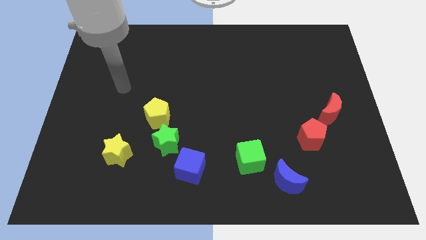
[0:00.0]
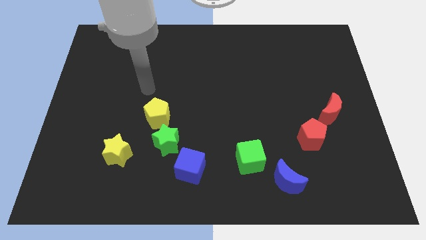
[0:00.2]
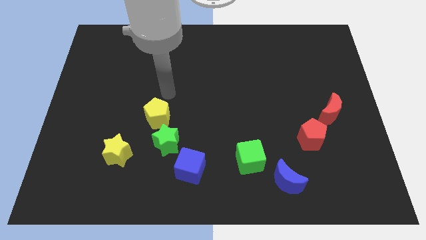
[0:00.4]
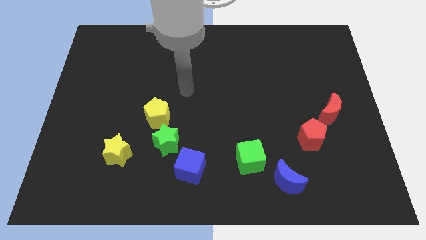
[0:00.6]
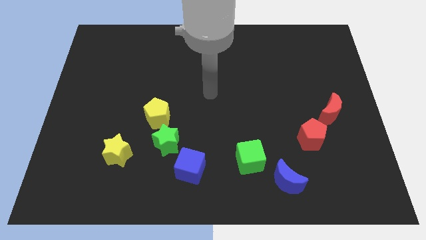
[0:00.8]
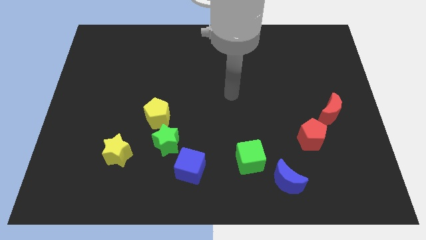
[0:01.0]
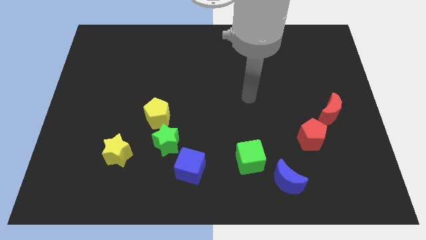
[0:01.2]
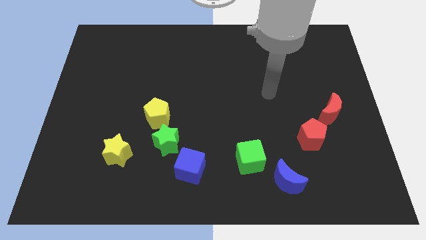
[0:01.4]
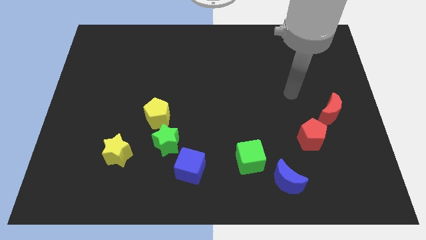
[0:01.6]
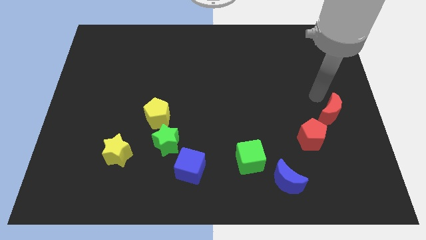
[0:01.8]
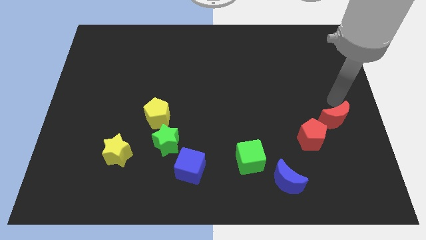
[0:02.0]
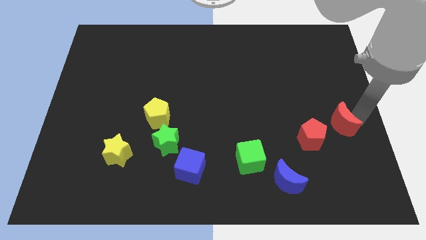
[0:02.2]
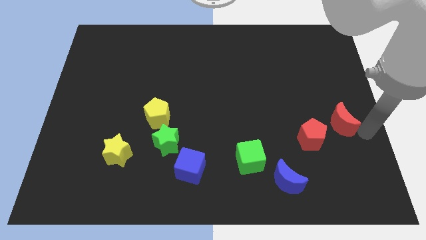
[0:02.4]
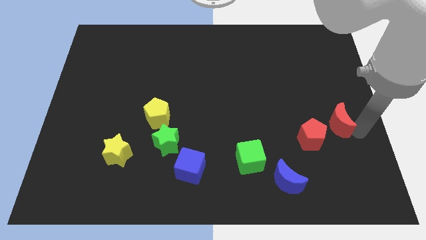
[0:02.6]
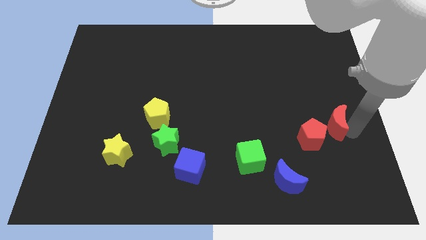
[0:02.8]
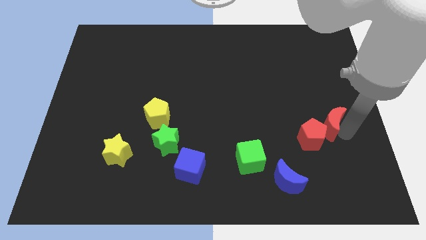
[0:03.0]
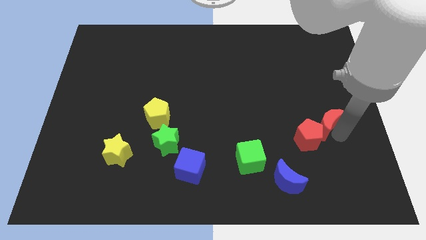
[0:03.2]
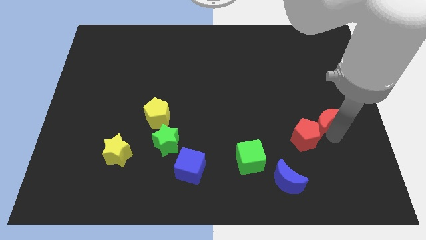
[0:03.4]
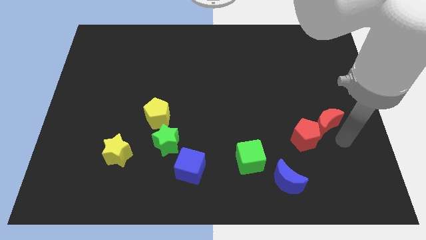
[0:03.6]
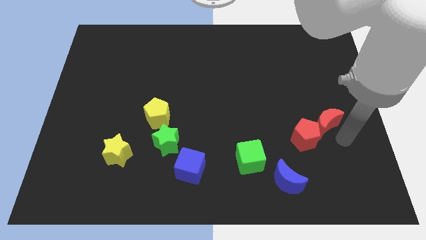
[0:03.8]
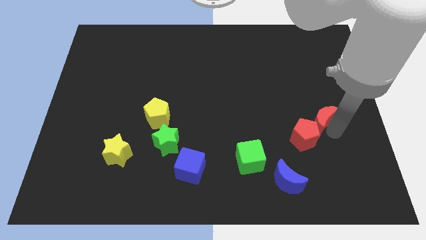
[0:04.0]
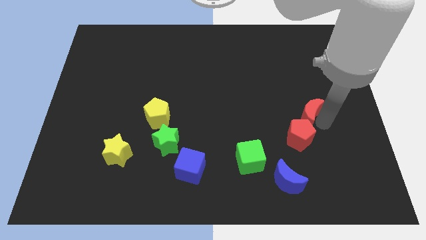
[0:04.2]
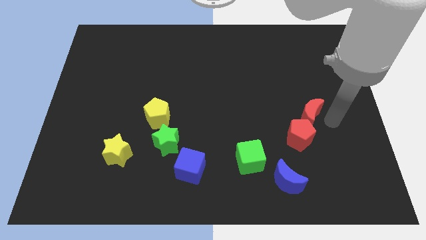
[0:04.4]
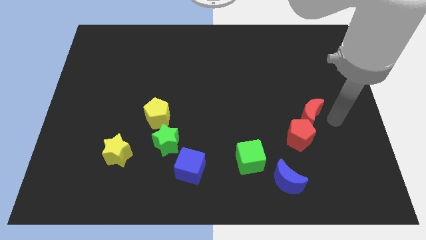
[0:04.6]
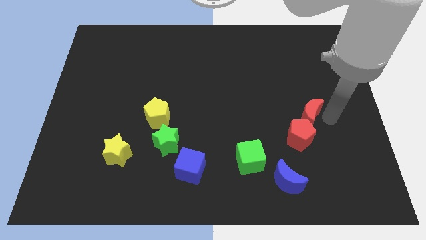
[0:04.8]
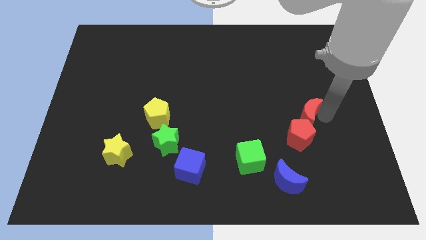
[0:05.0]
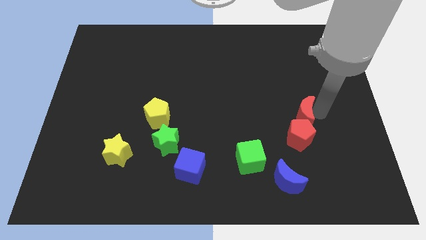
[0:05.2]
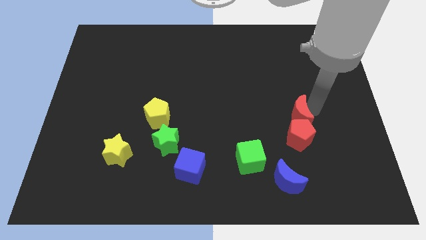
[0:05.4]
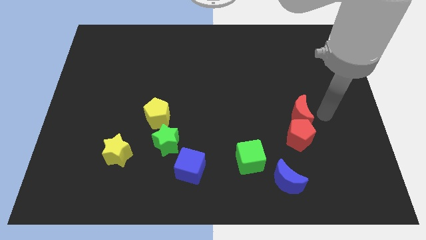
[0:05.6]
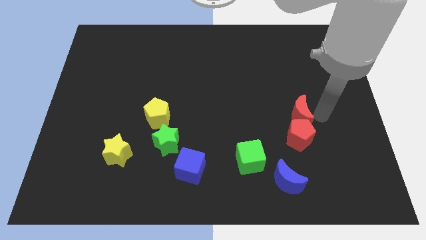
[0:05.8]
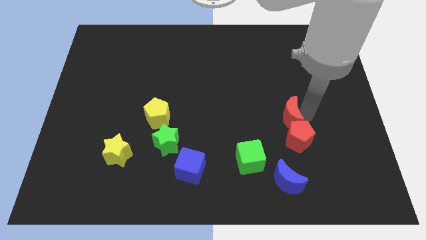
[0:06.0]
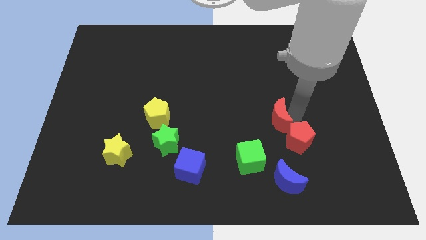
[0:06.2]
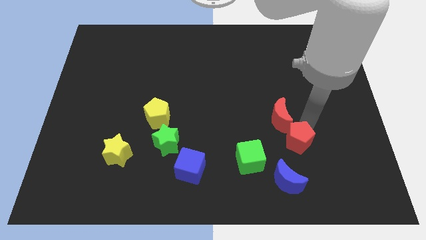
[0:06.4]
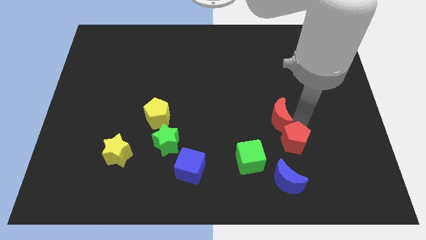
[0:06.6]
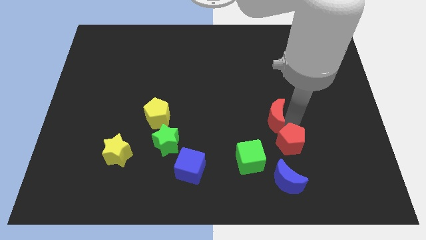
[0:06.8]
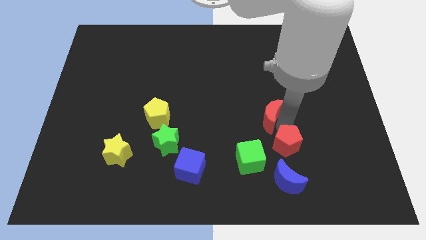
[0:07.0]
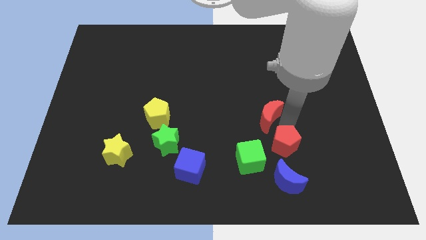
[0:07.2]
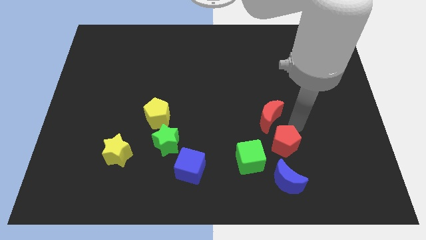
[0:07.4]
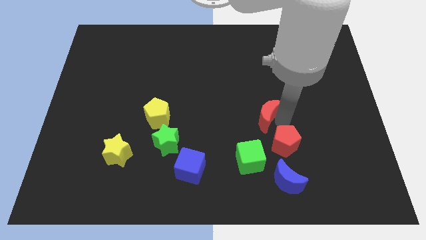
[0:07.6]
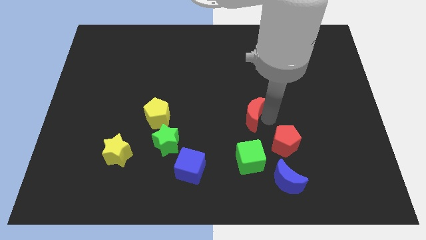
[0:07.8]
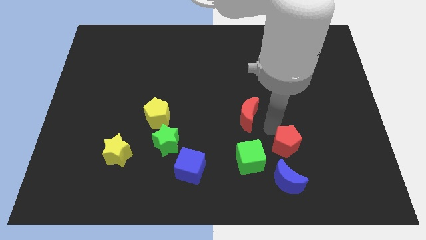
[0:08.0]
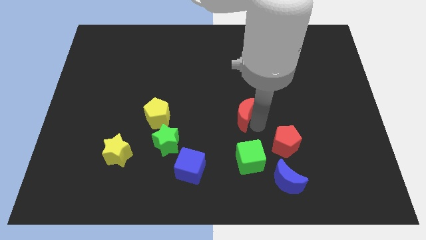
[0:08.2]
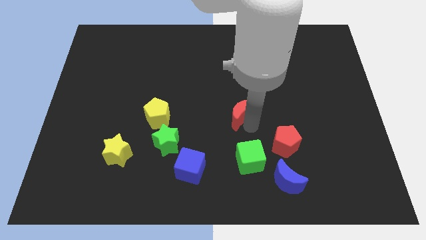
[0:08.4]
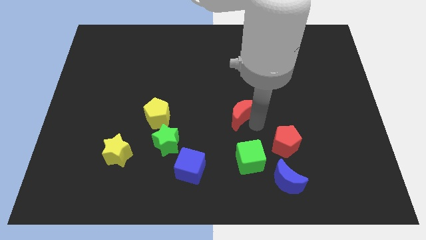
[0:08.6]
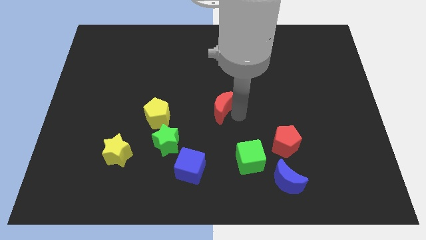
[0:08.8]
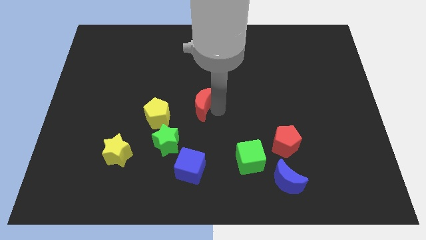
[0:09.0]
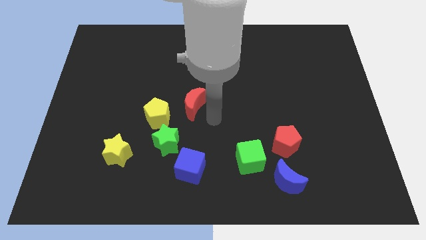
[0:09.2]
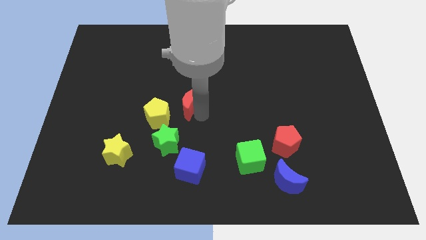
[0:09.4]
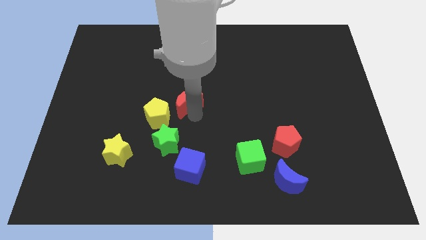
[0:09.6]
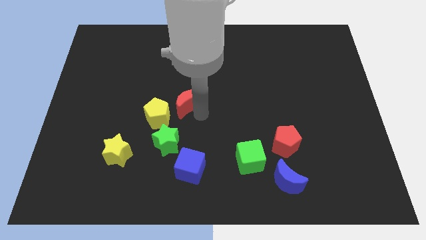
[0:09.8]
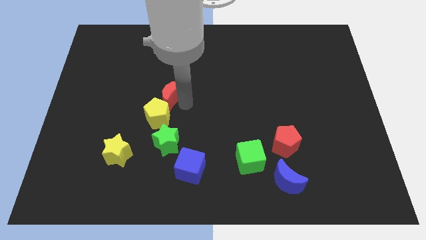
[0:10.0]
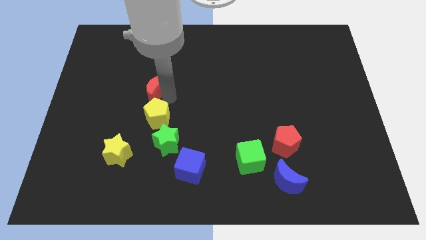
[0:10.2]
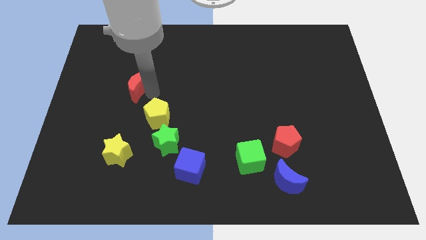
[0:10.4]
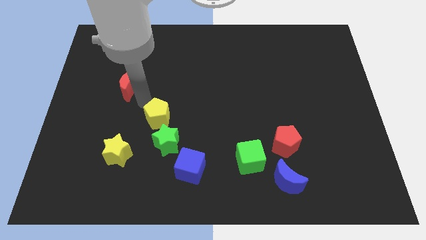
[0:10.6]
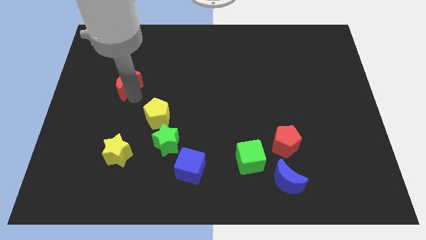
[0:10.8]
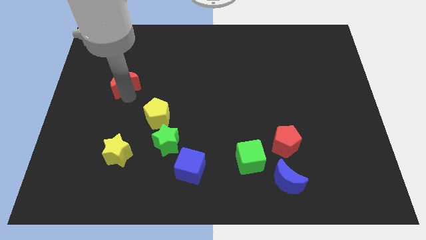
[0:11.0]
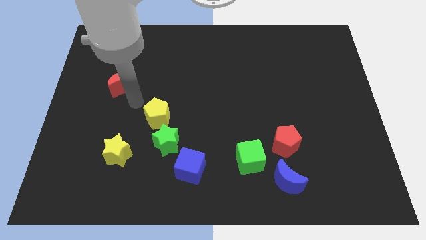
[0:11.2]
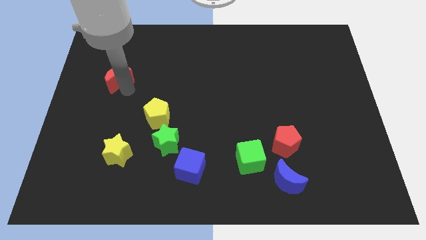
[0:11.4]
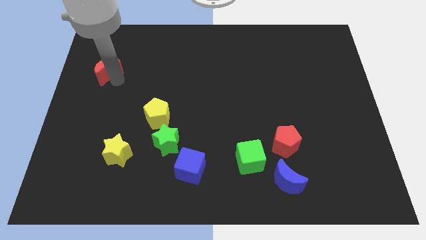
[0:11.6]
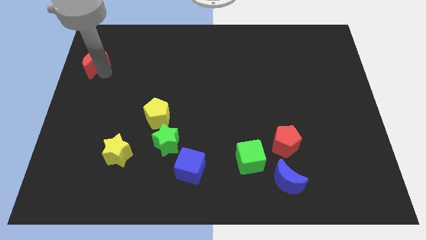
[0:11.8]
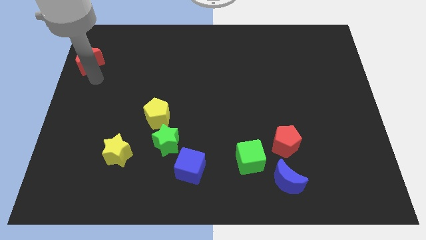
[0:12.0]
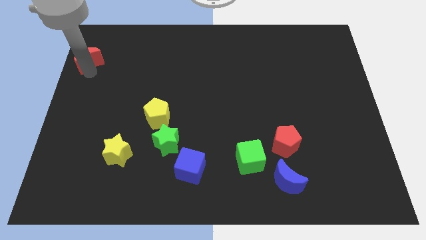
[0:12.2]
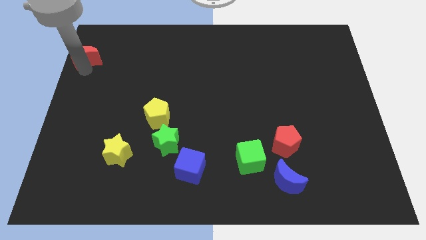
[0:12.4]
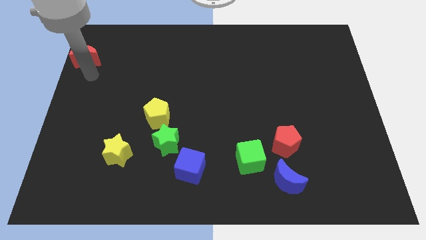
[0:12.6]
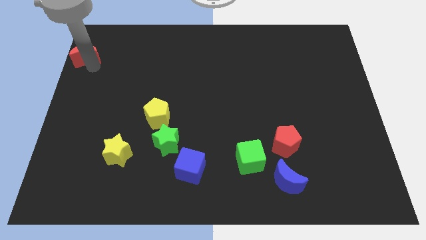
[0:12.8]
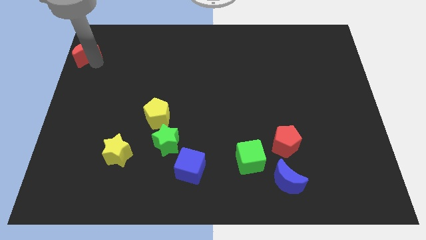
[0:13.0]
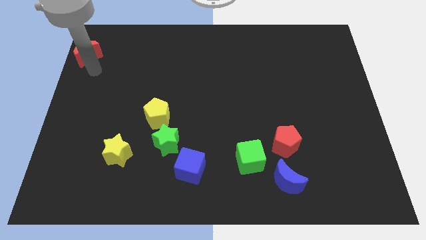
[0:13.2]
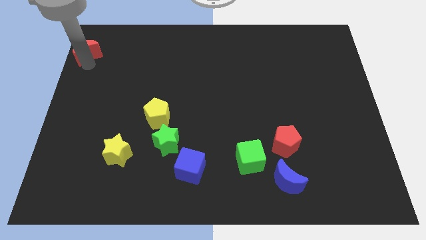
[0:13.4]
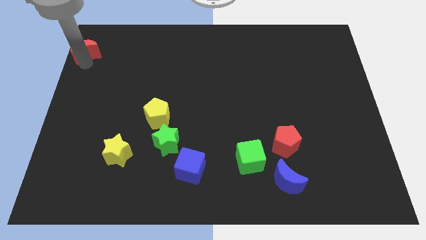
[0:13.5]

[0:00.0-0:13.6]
move the red moon to the top left corner
